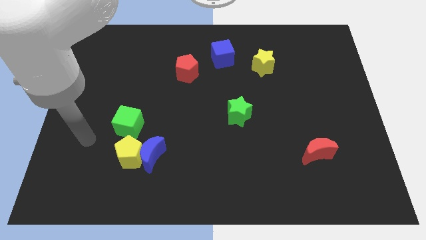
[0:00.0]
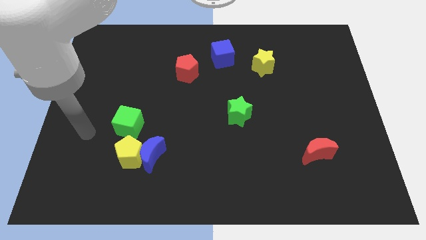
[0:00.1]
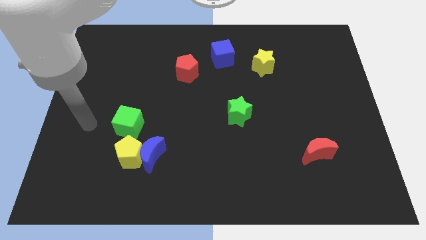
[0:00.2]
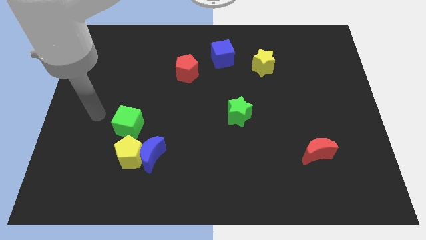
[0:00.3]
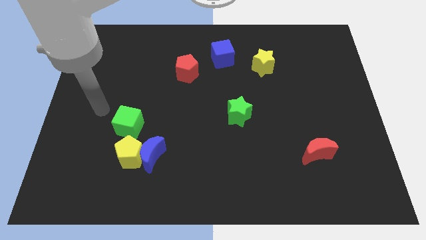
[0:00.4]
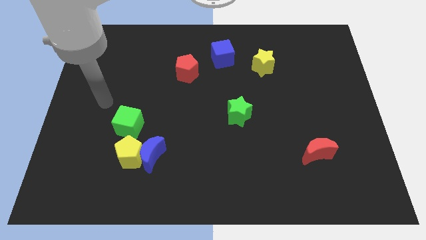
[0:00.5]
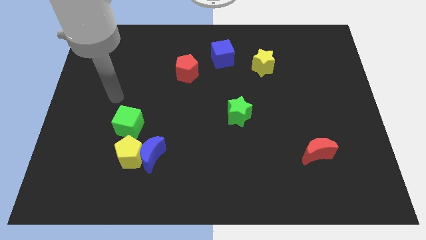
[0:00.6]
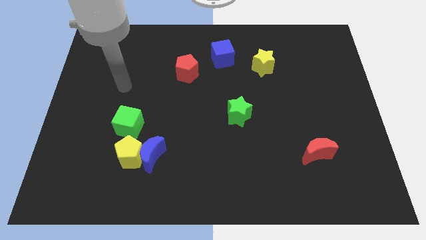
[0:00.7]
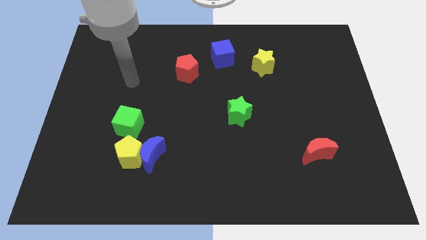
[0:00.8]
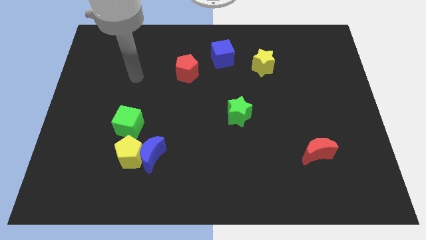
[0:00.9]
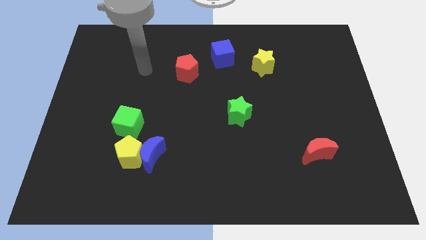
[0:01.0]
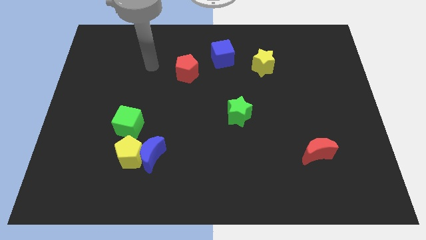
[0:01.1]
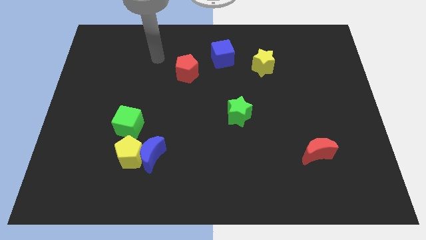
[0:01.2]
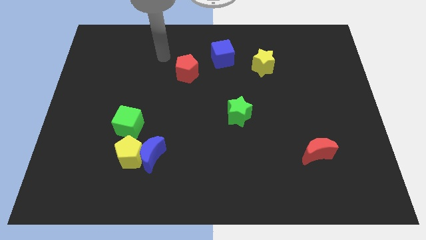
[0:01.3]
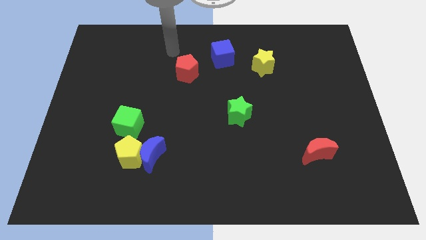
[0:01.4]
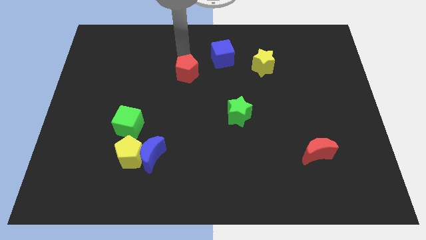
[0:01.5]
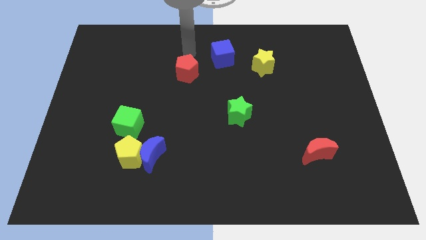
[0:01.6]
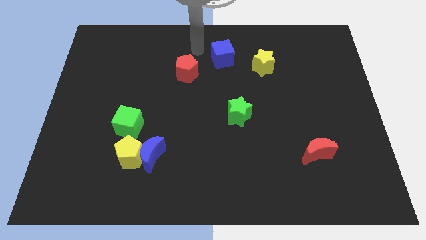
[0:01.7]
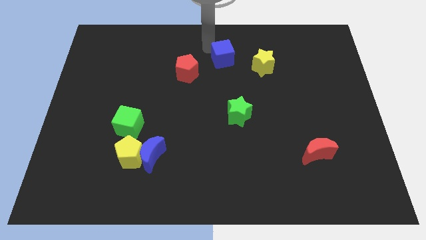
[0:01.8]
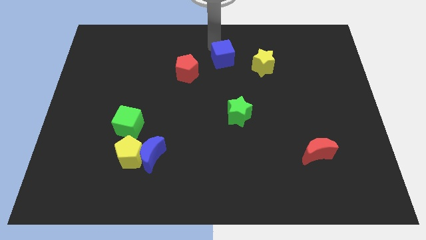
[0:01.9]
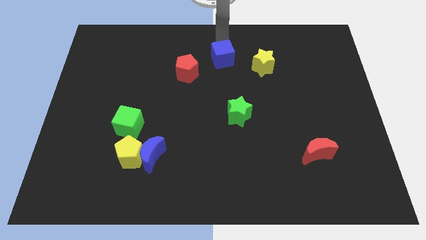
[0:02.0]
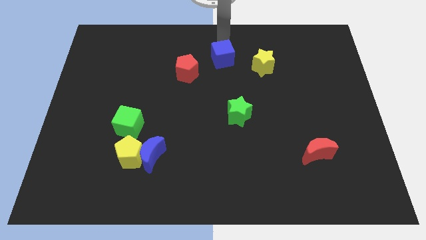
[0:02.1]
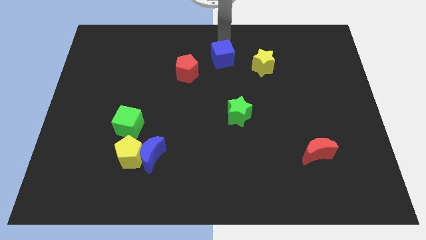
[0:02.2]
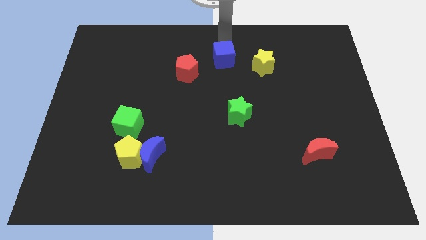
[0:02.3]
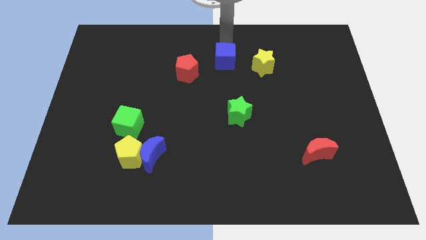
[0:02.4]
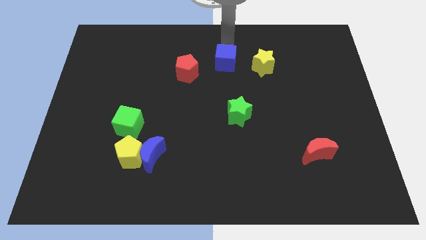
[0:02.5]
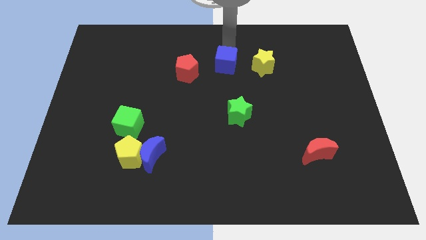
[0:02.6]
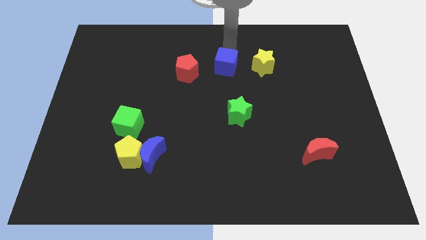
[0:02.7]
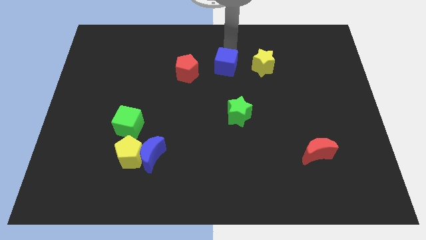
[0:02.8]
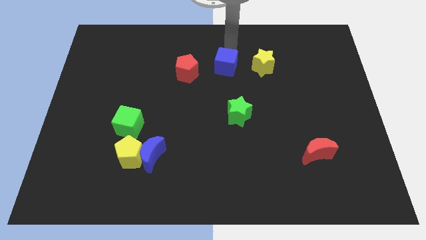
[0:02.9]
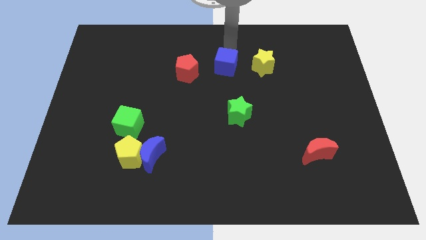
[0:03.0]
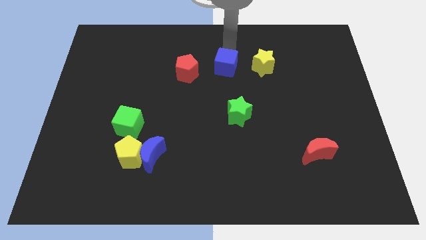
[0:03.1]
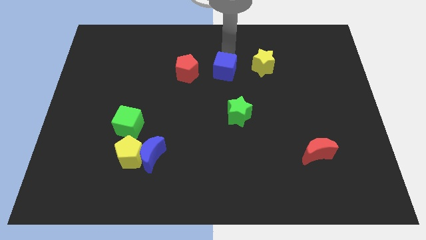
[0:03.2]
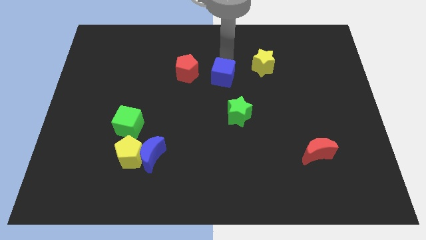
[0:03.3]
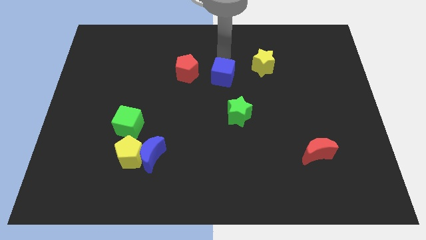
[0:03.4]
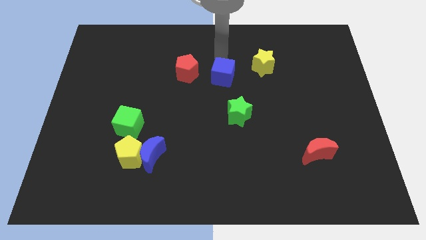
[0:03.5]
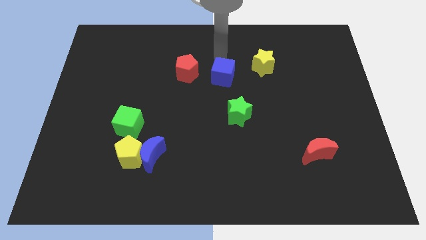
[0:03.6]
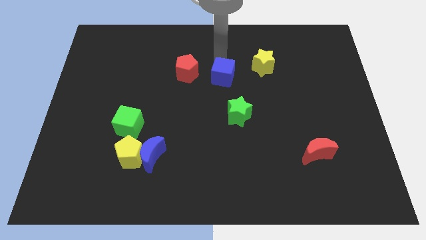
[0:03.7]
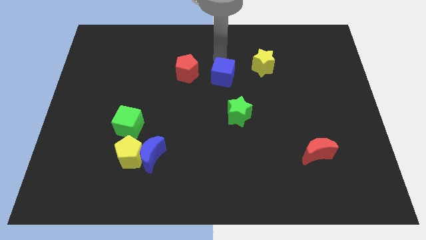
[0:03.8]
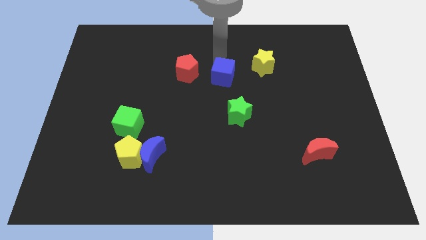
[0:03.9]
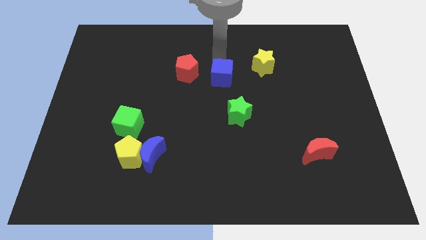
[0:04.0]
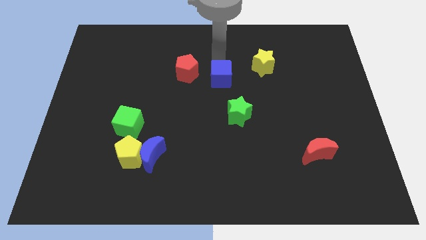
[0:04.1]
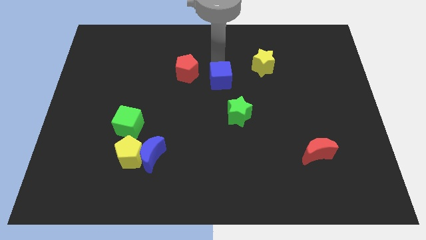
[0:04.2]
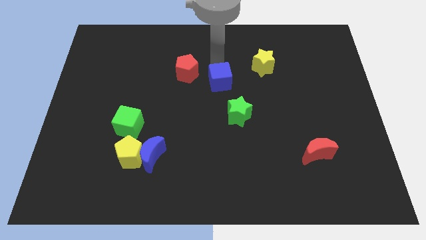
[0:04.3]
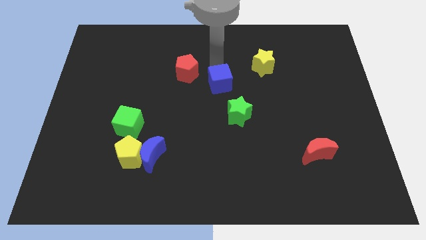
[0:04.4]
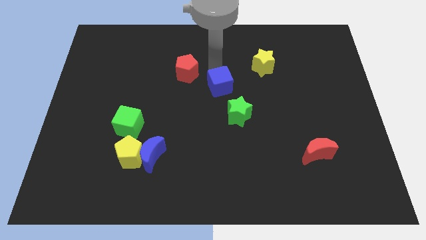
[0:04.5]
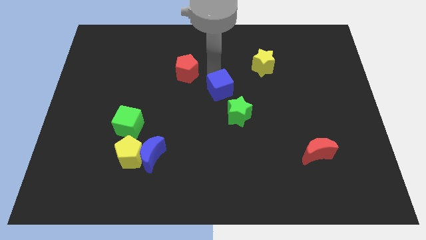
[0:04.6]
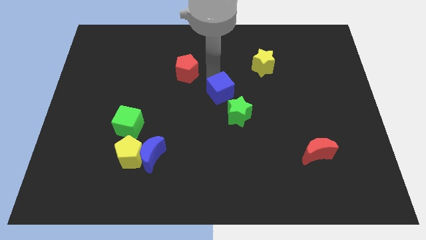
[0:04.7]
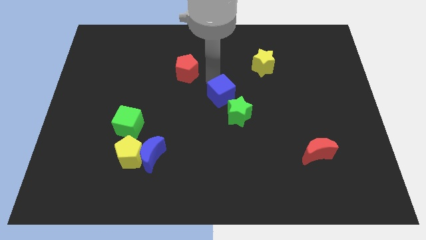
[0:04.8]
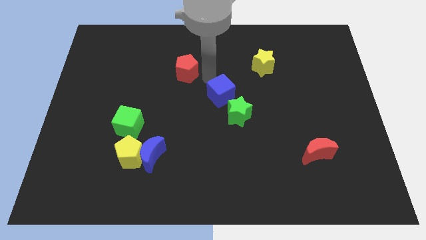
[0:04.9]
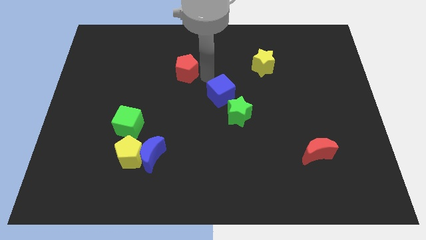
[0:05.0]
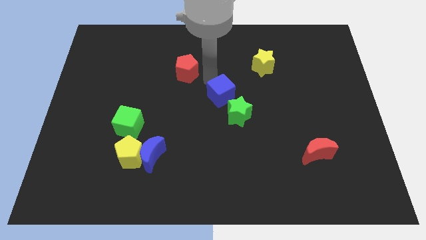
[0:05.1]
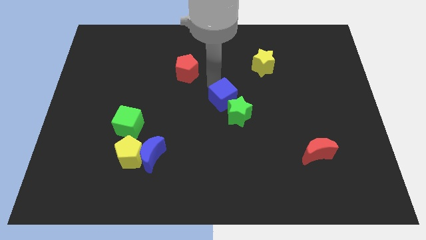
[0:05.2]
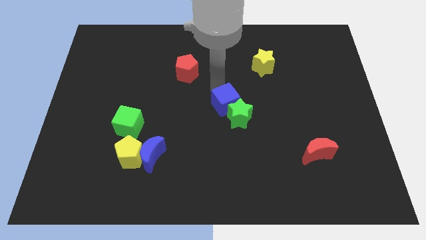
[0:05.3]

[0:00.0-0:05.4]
put the blue cube to the green star

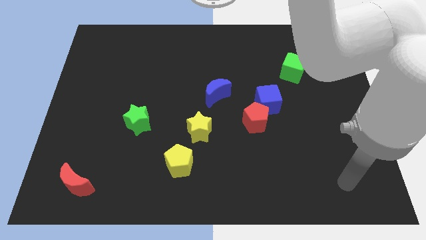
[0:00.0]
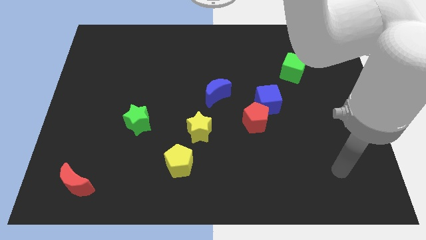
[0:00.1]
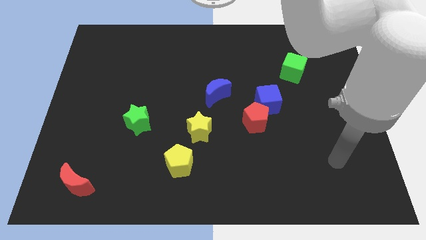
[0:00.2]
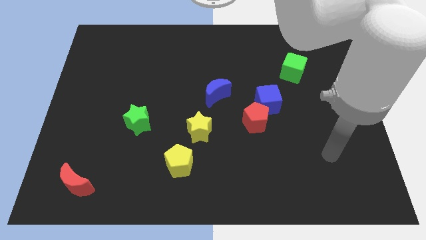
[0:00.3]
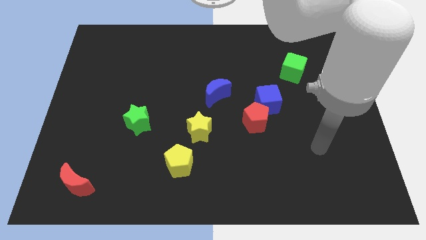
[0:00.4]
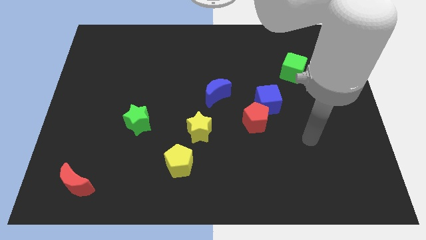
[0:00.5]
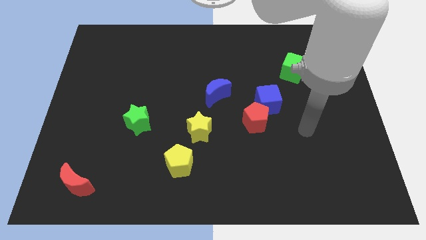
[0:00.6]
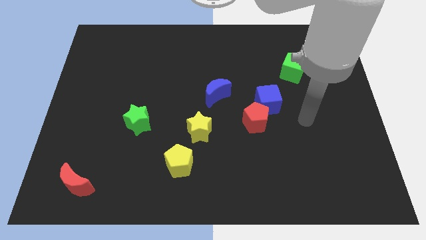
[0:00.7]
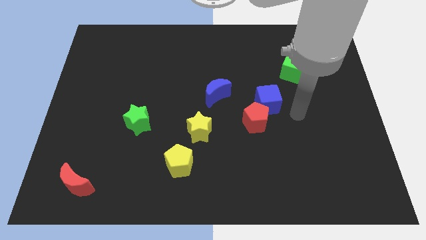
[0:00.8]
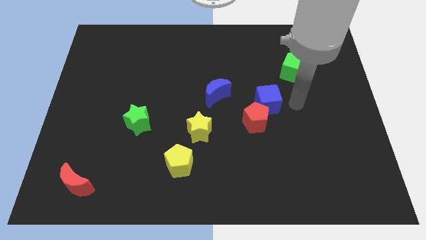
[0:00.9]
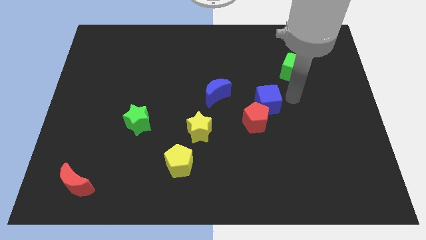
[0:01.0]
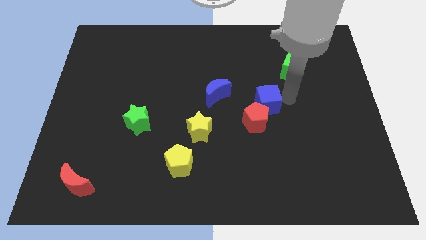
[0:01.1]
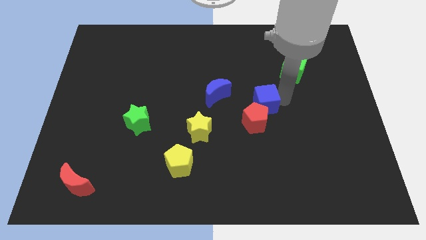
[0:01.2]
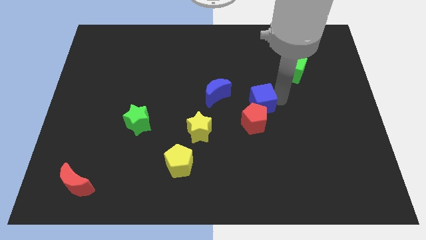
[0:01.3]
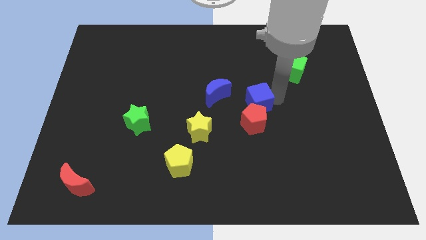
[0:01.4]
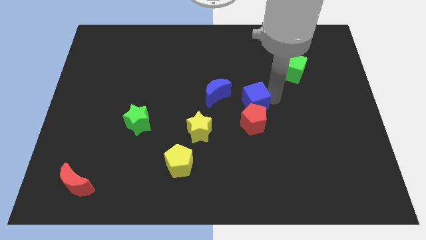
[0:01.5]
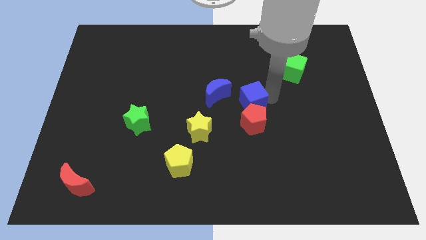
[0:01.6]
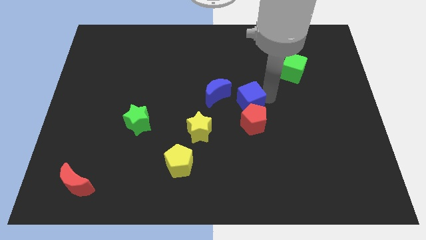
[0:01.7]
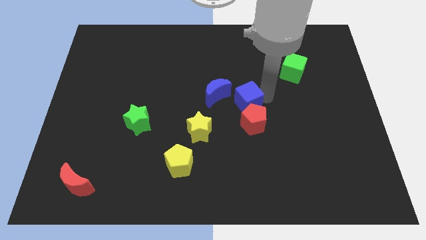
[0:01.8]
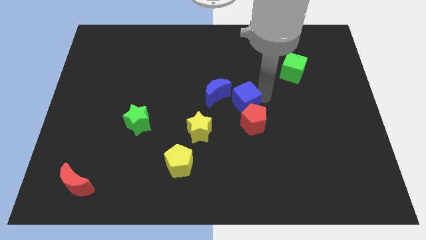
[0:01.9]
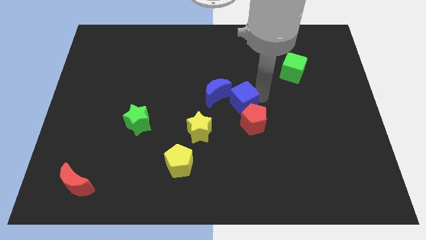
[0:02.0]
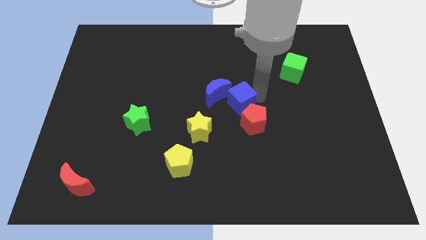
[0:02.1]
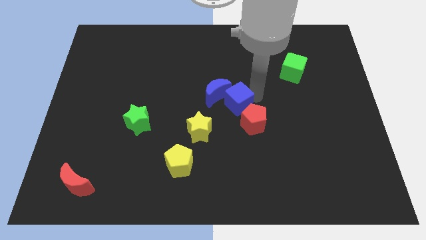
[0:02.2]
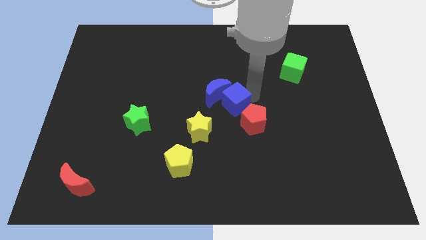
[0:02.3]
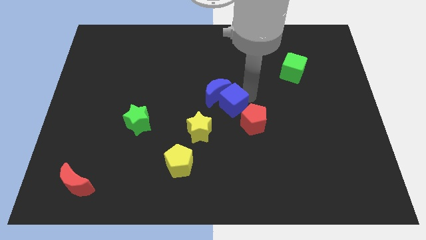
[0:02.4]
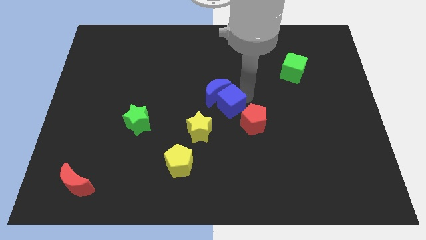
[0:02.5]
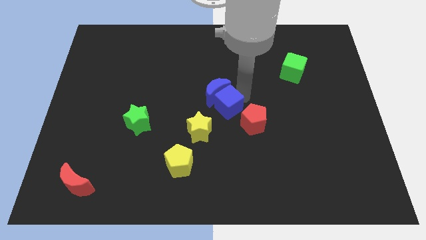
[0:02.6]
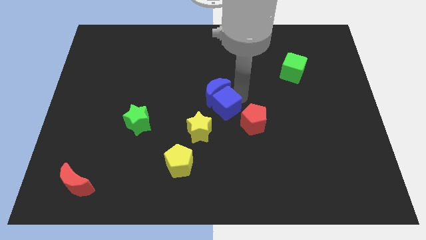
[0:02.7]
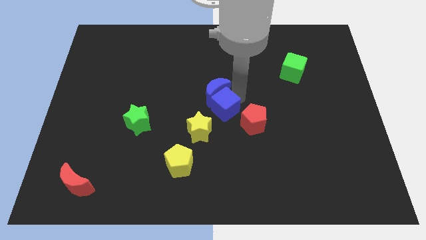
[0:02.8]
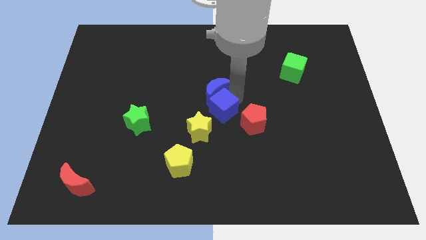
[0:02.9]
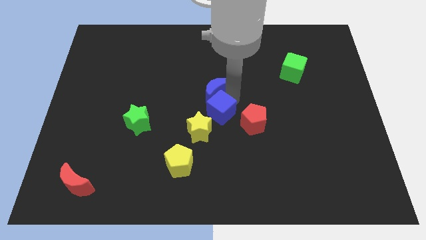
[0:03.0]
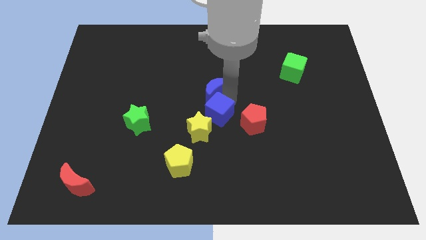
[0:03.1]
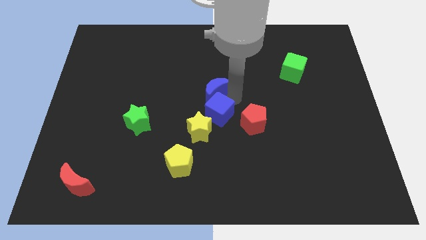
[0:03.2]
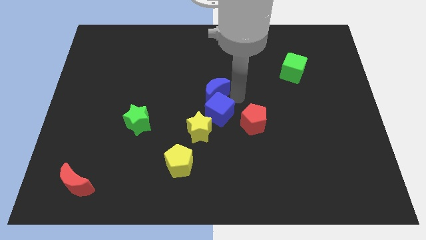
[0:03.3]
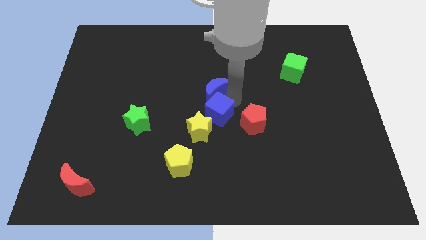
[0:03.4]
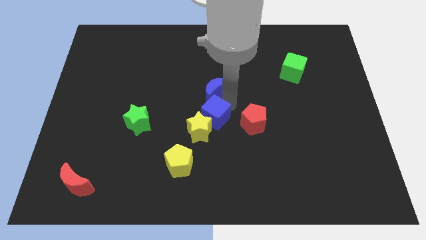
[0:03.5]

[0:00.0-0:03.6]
put the blue cube close to the yellow star
